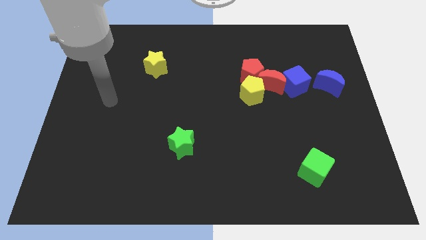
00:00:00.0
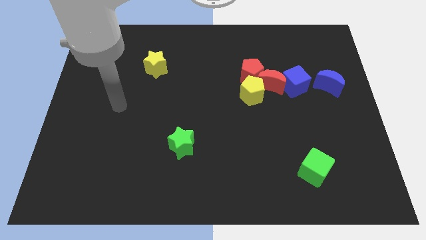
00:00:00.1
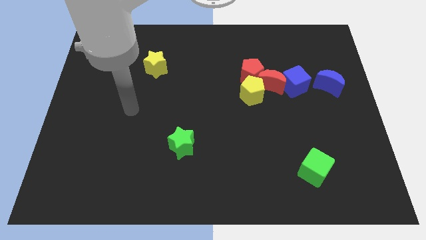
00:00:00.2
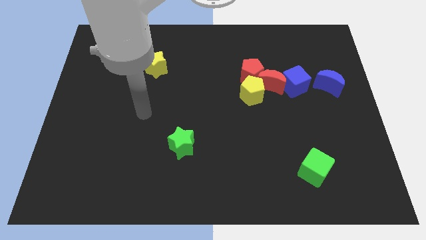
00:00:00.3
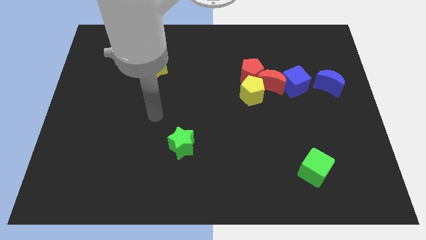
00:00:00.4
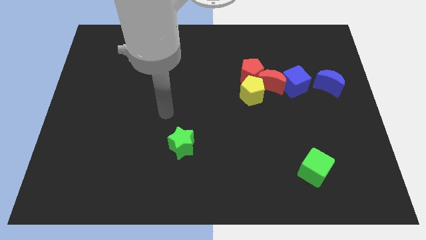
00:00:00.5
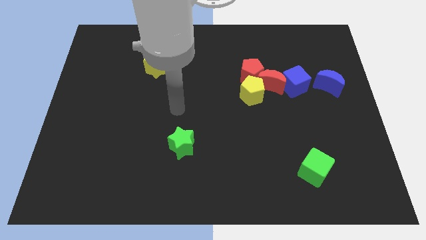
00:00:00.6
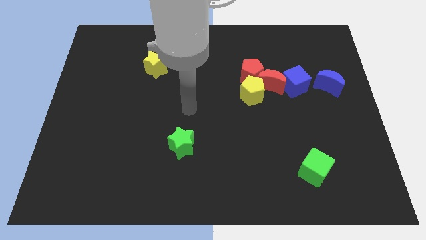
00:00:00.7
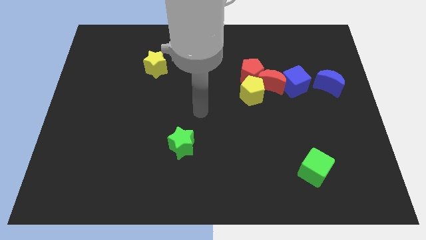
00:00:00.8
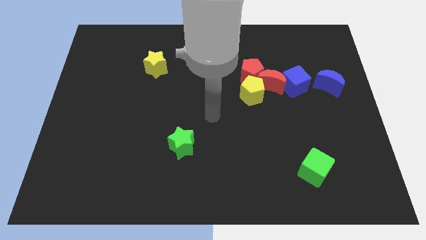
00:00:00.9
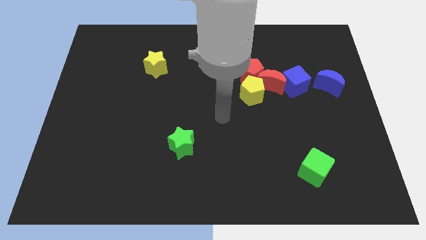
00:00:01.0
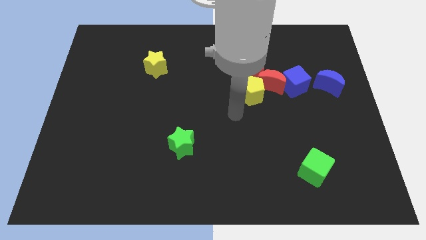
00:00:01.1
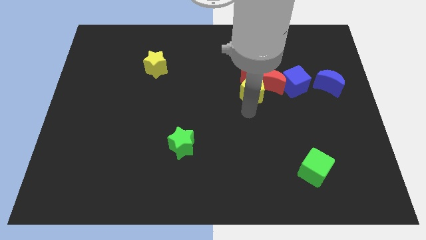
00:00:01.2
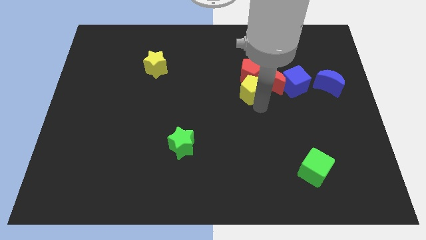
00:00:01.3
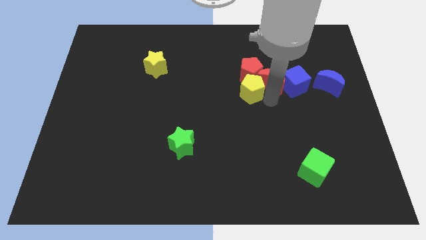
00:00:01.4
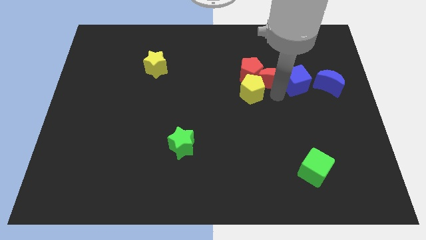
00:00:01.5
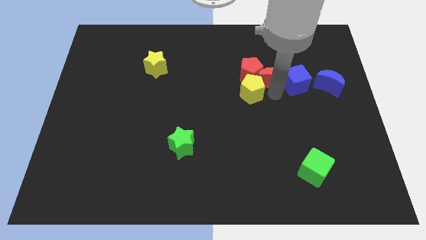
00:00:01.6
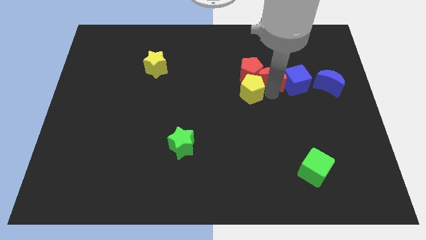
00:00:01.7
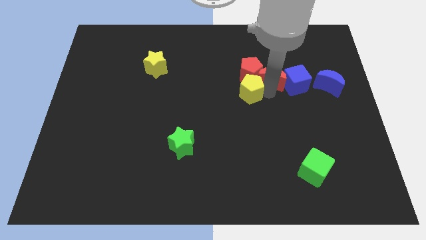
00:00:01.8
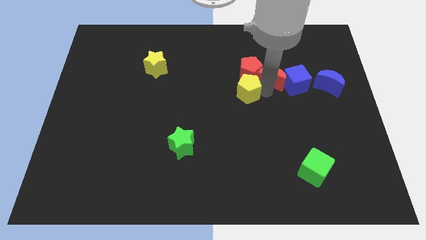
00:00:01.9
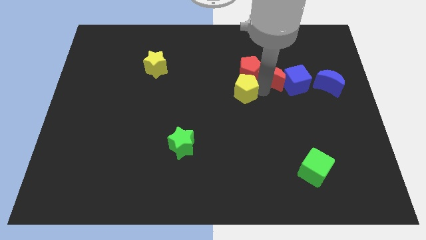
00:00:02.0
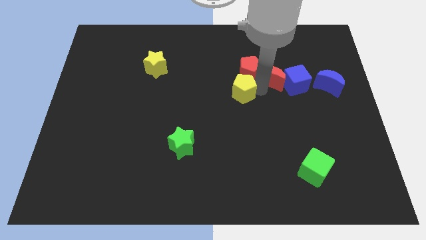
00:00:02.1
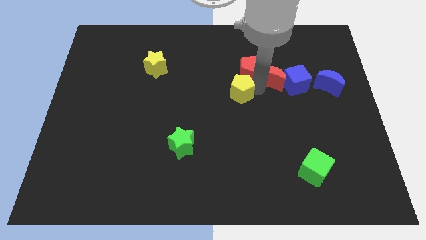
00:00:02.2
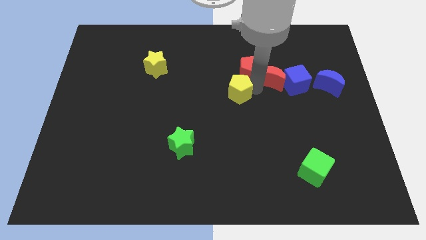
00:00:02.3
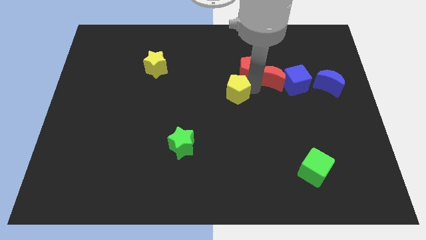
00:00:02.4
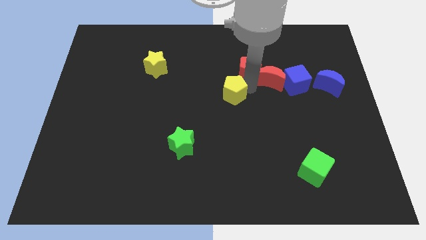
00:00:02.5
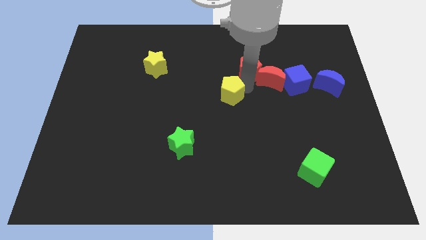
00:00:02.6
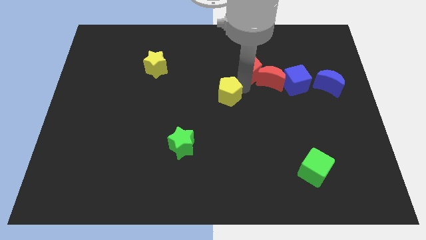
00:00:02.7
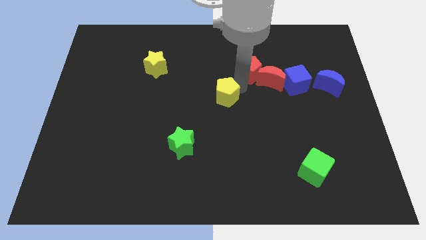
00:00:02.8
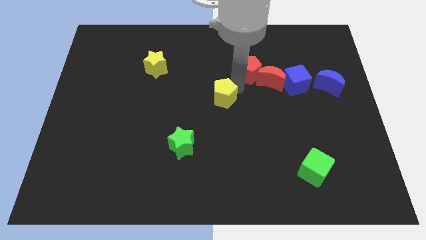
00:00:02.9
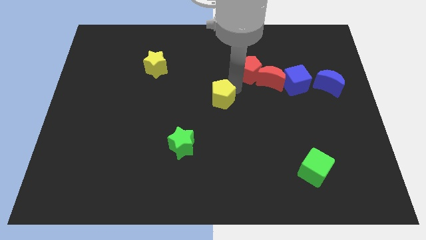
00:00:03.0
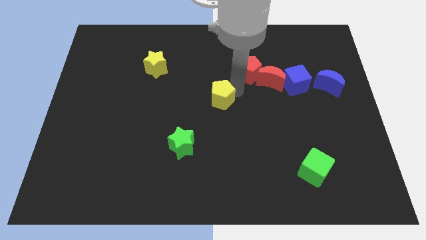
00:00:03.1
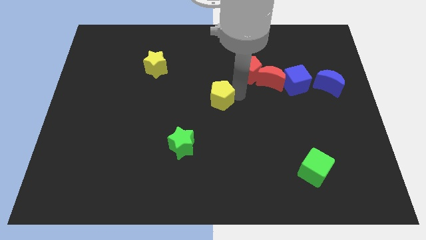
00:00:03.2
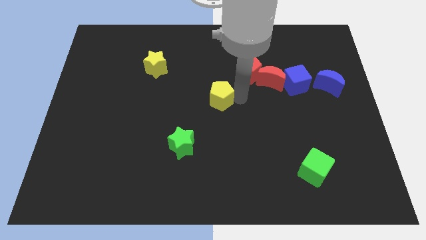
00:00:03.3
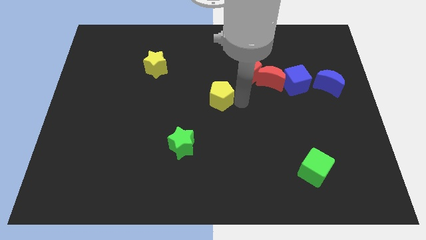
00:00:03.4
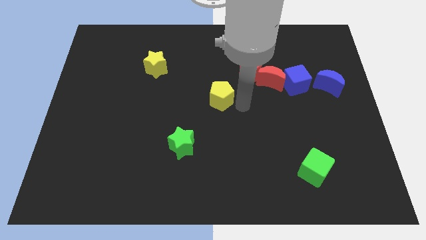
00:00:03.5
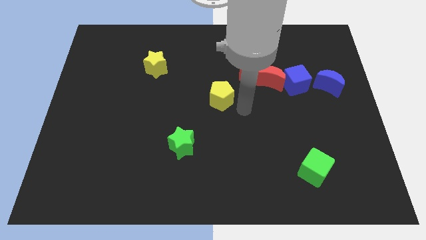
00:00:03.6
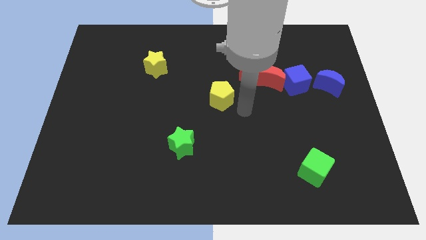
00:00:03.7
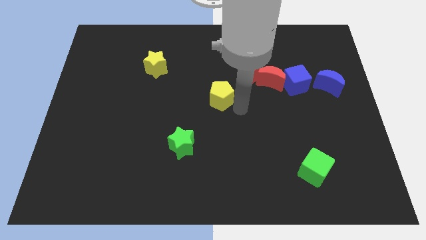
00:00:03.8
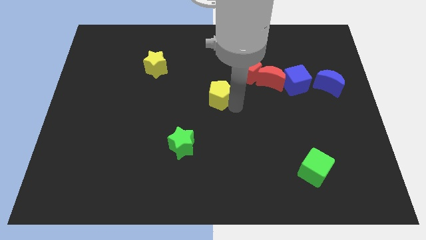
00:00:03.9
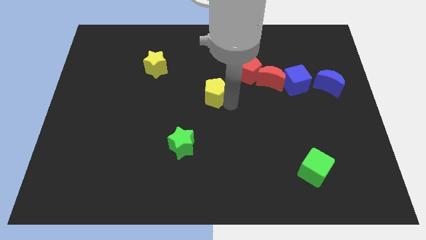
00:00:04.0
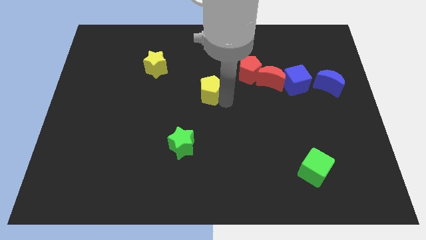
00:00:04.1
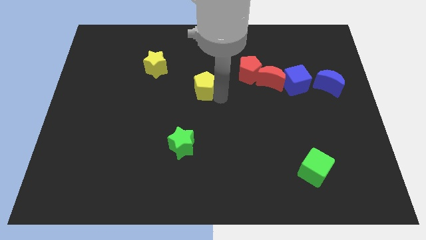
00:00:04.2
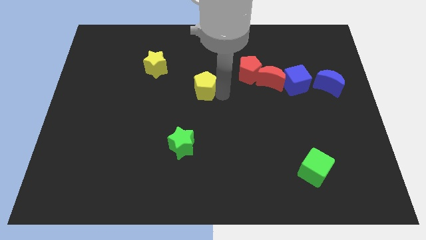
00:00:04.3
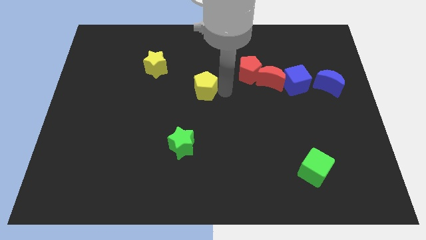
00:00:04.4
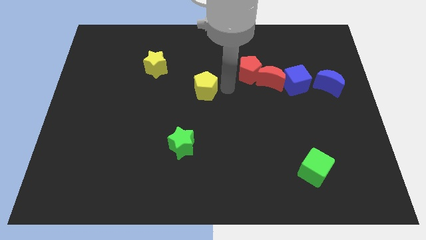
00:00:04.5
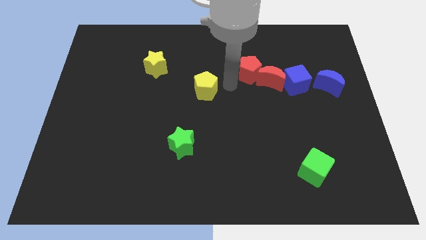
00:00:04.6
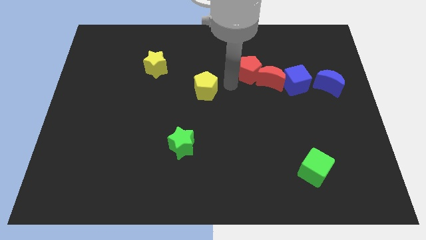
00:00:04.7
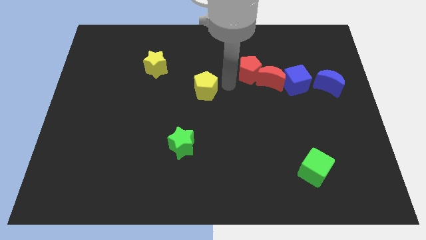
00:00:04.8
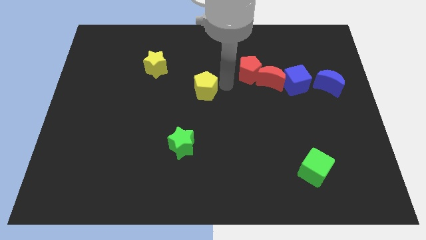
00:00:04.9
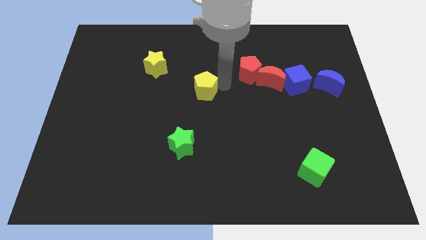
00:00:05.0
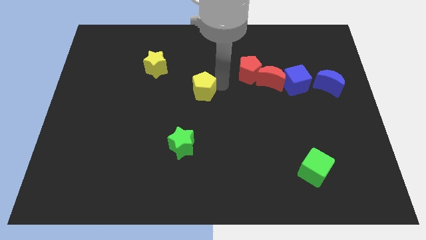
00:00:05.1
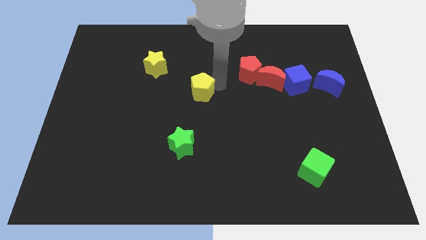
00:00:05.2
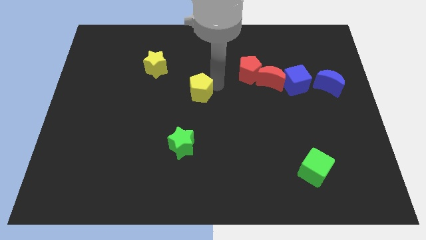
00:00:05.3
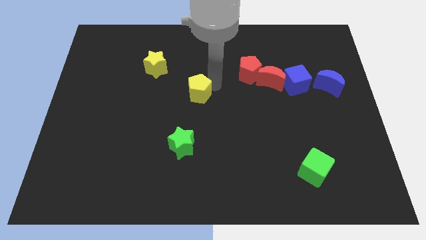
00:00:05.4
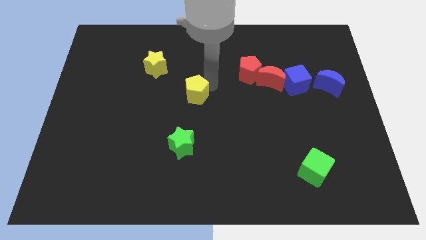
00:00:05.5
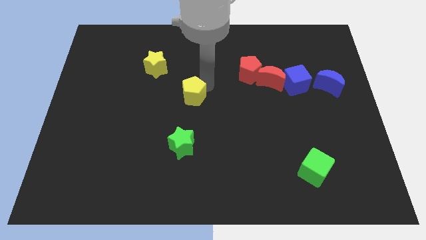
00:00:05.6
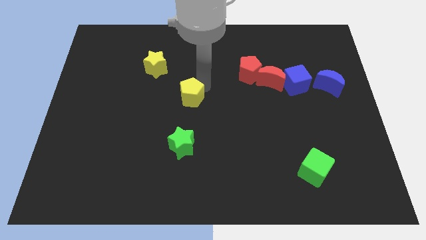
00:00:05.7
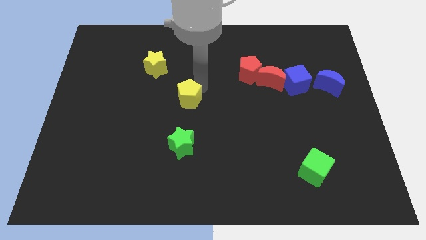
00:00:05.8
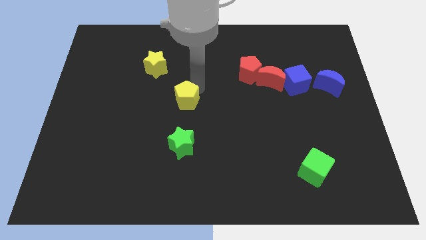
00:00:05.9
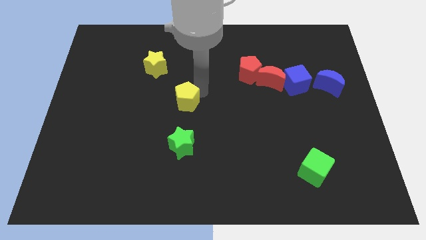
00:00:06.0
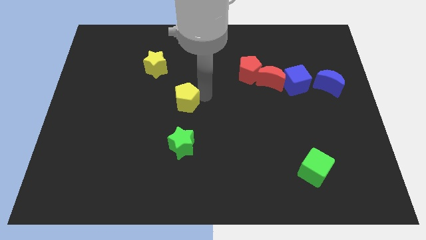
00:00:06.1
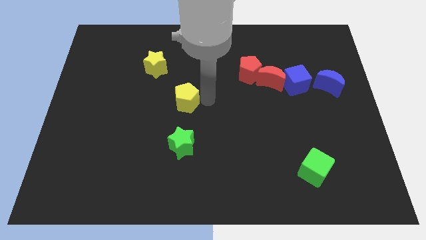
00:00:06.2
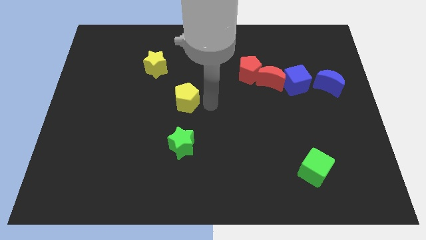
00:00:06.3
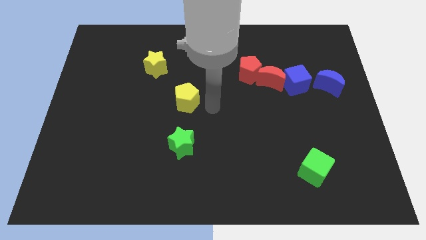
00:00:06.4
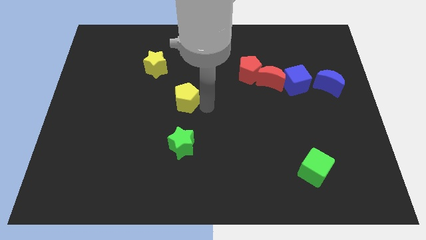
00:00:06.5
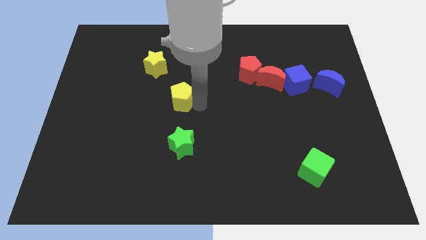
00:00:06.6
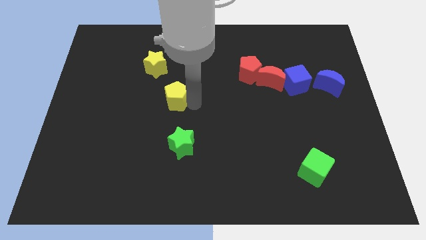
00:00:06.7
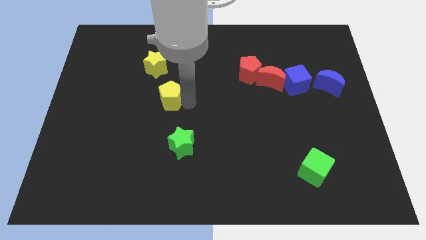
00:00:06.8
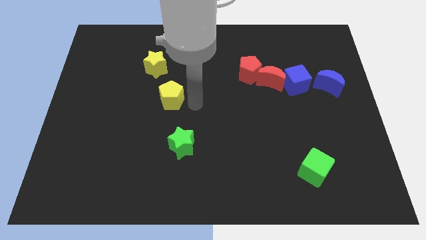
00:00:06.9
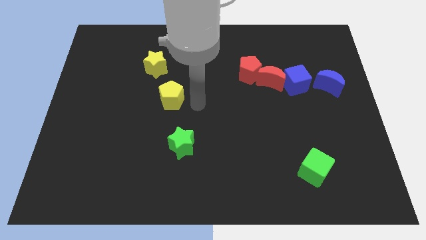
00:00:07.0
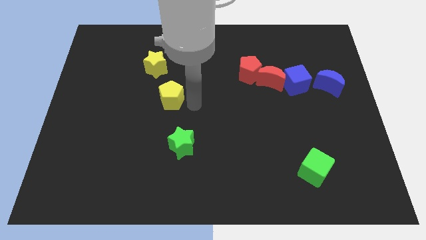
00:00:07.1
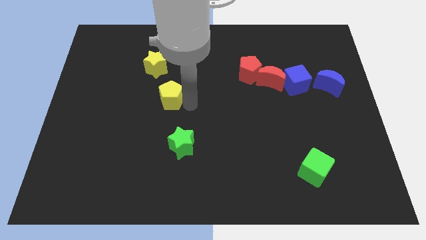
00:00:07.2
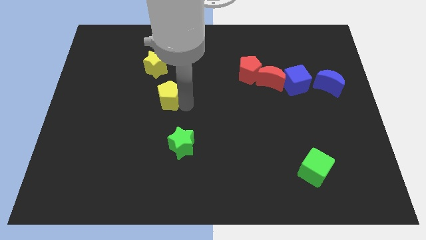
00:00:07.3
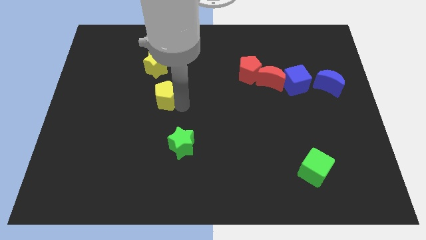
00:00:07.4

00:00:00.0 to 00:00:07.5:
slide the yellow pentagon left

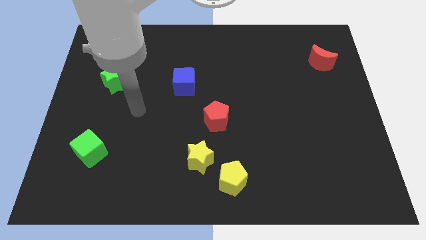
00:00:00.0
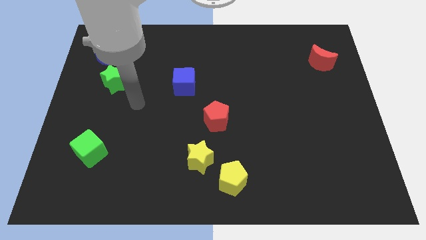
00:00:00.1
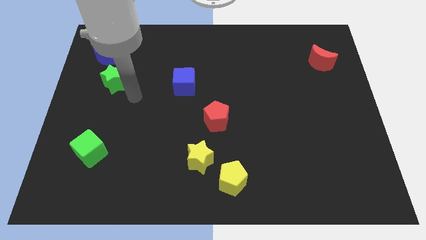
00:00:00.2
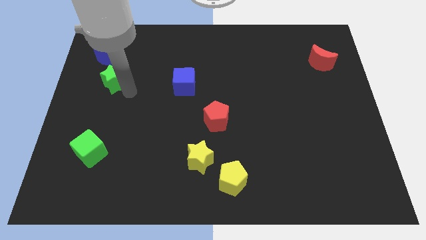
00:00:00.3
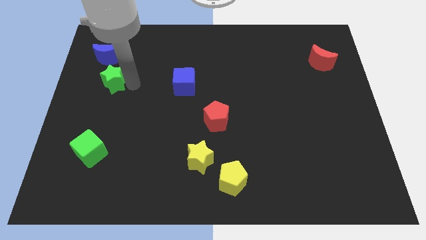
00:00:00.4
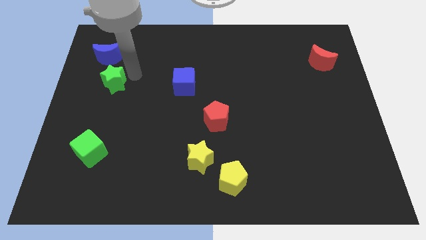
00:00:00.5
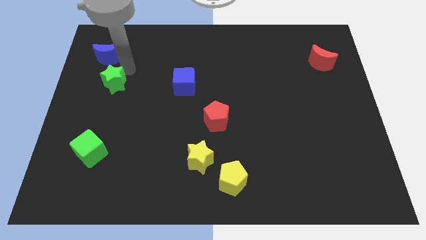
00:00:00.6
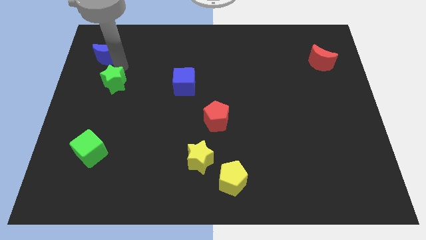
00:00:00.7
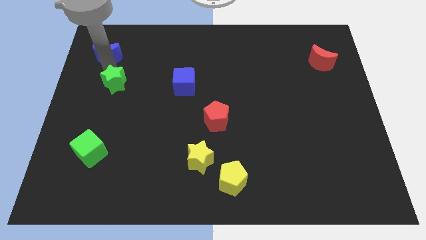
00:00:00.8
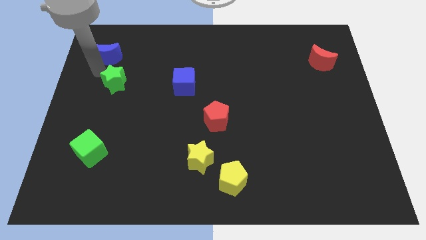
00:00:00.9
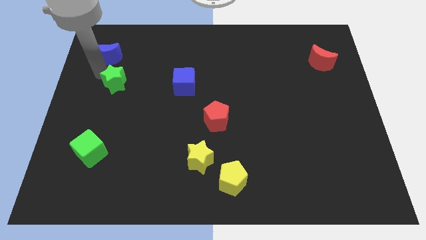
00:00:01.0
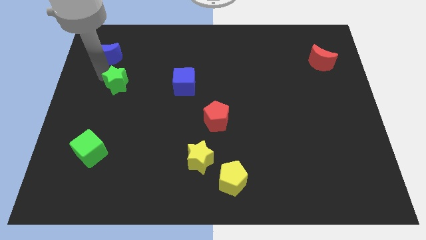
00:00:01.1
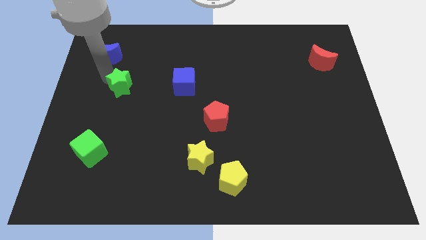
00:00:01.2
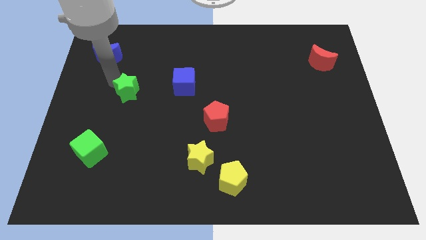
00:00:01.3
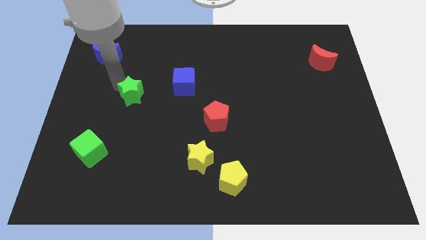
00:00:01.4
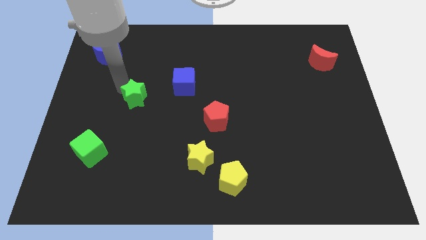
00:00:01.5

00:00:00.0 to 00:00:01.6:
move the green star a bit down and then to the right
